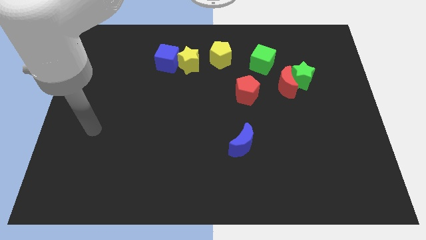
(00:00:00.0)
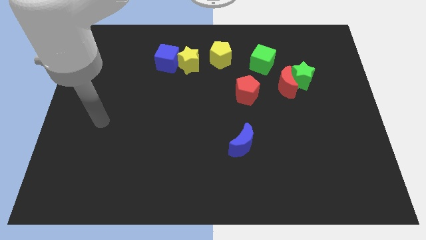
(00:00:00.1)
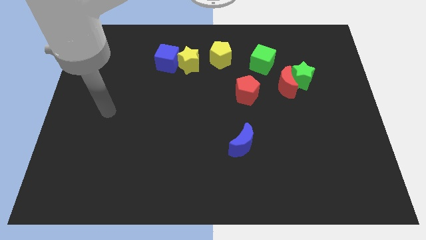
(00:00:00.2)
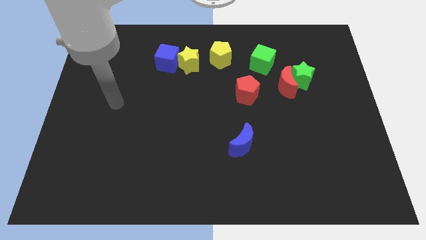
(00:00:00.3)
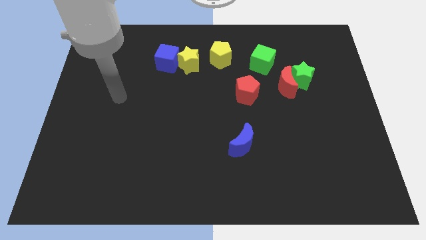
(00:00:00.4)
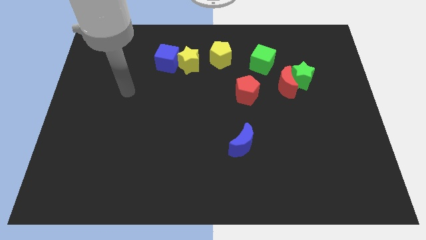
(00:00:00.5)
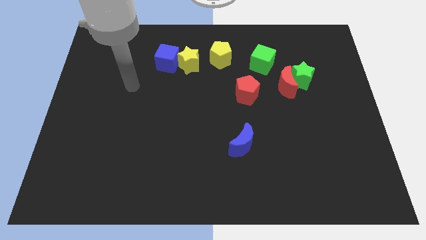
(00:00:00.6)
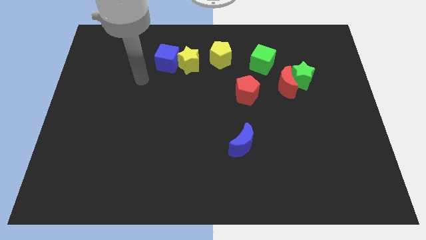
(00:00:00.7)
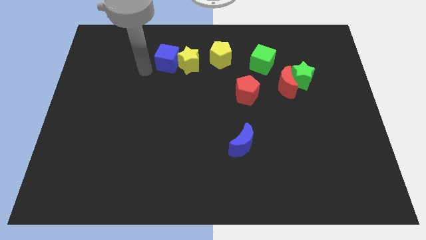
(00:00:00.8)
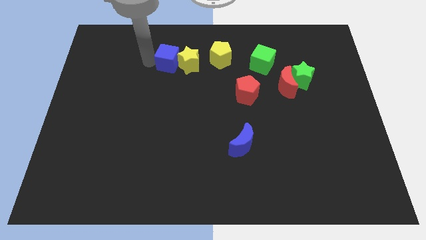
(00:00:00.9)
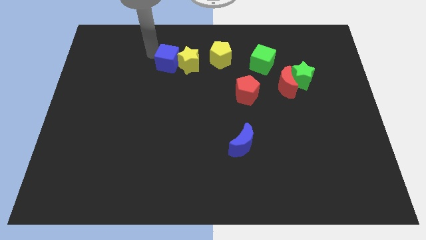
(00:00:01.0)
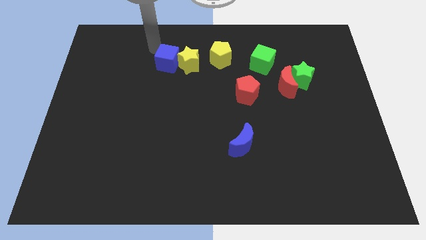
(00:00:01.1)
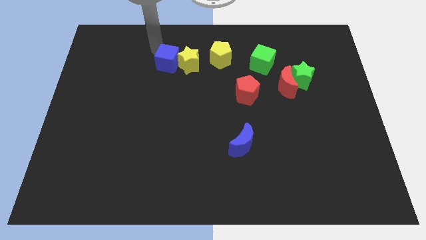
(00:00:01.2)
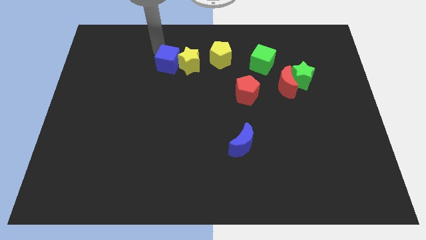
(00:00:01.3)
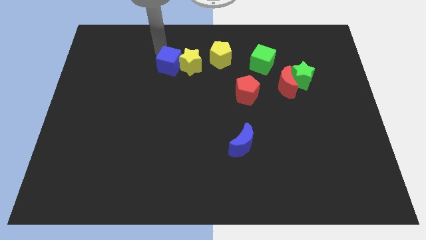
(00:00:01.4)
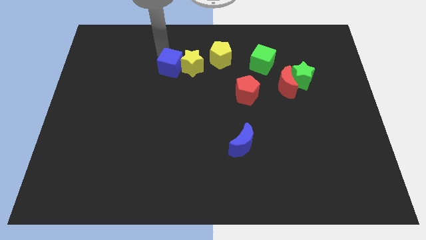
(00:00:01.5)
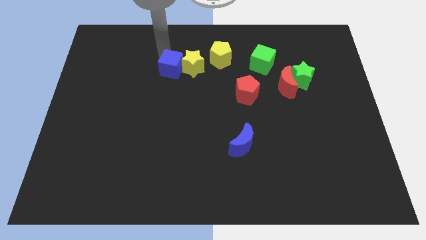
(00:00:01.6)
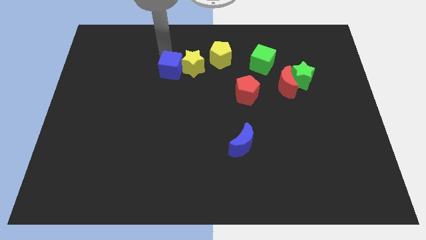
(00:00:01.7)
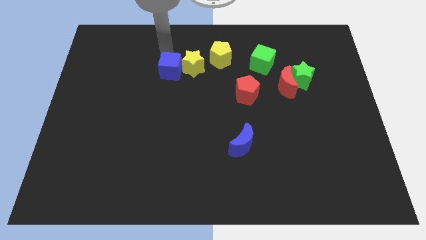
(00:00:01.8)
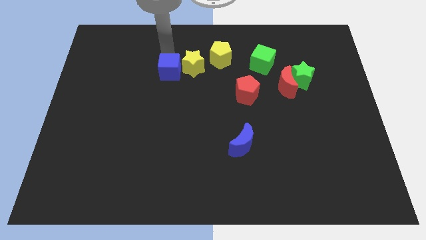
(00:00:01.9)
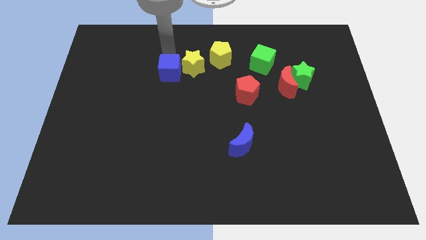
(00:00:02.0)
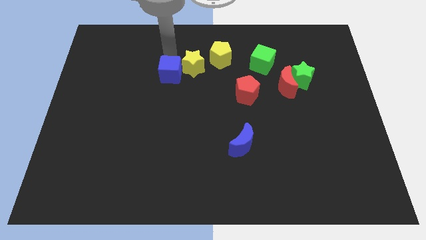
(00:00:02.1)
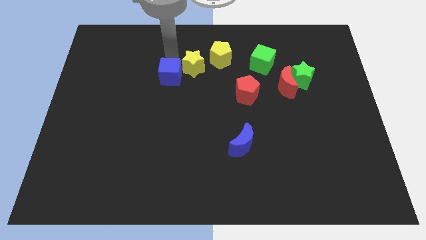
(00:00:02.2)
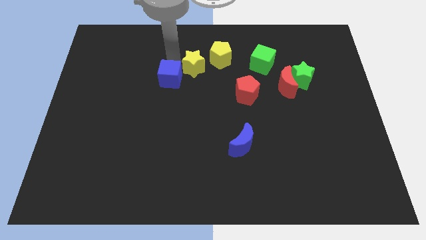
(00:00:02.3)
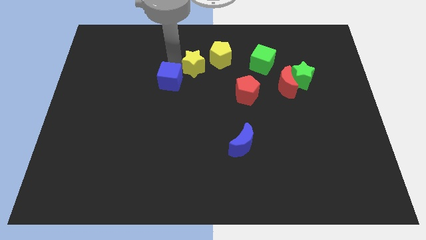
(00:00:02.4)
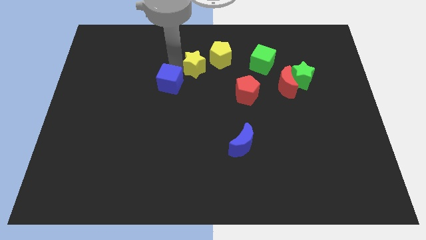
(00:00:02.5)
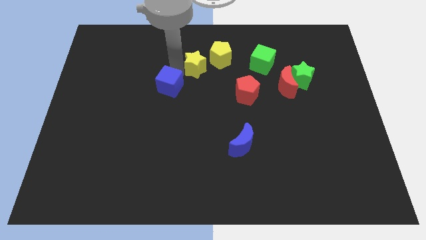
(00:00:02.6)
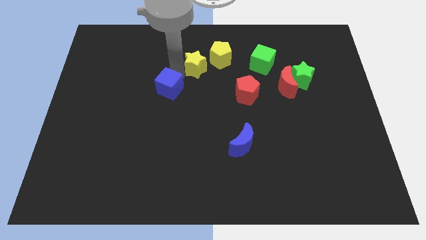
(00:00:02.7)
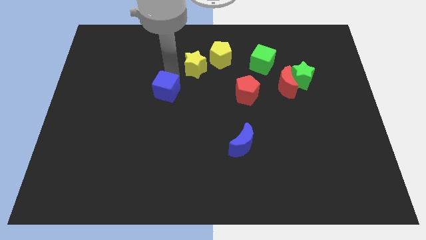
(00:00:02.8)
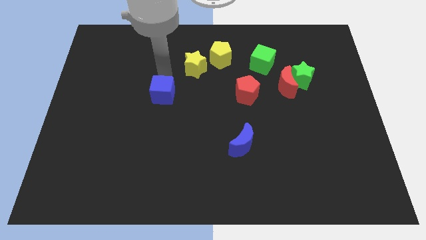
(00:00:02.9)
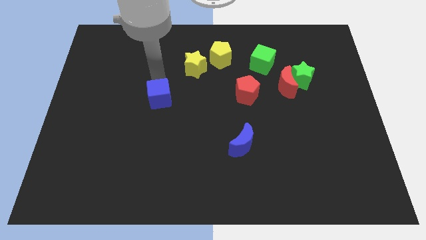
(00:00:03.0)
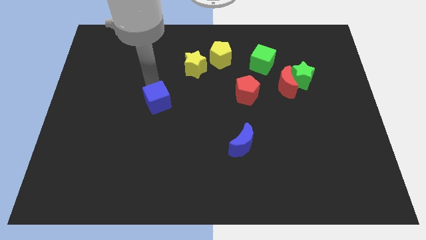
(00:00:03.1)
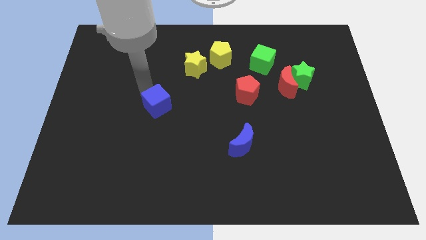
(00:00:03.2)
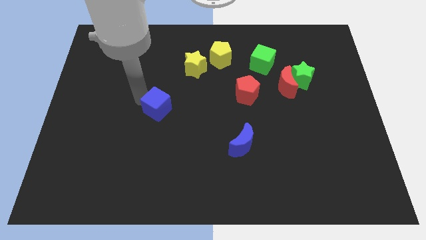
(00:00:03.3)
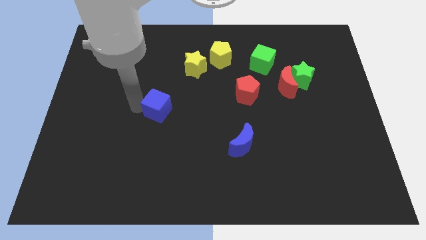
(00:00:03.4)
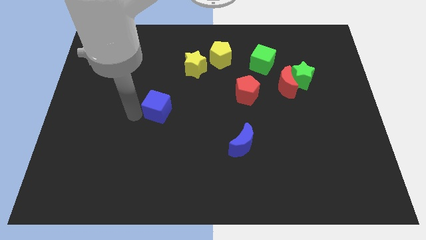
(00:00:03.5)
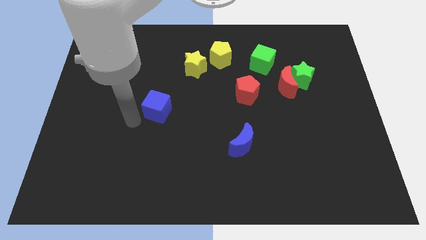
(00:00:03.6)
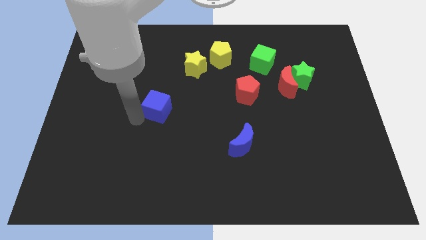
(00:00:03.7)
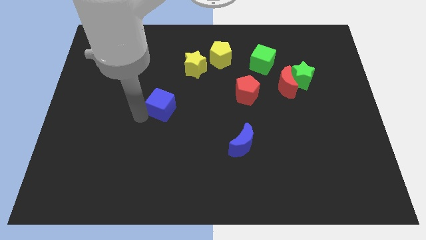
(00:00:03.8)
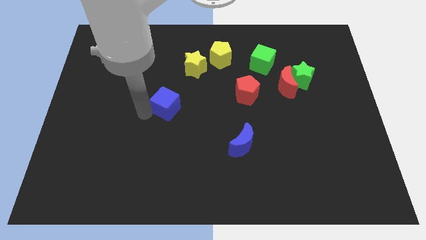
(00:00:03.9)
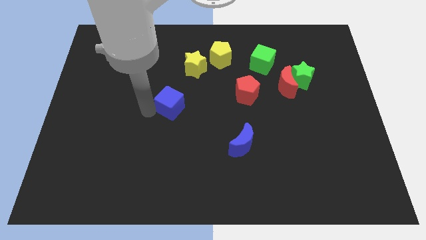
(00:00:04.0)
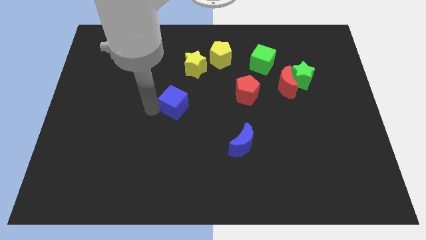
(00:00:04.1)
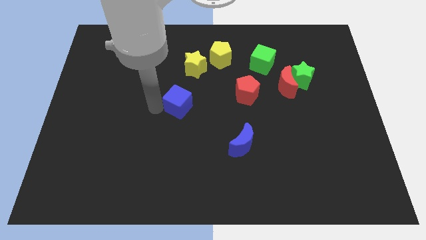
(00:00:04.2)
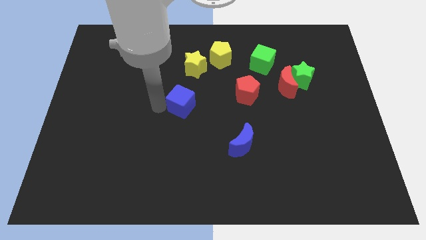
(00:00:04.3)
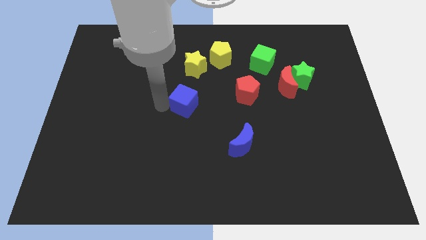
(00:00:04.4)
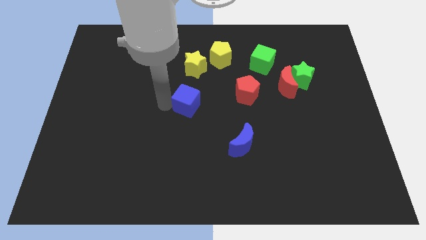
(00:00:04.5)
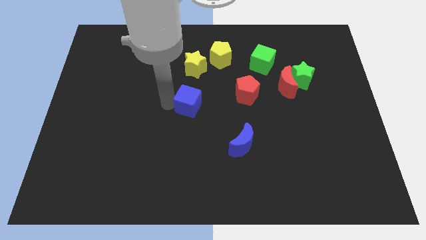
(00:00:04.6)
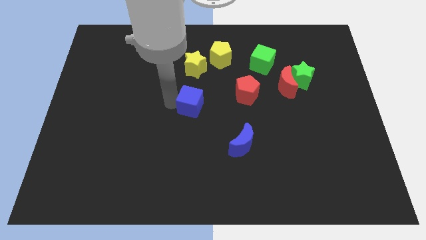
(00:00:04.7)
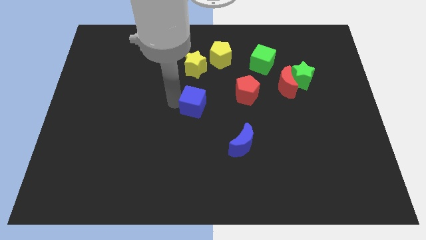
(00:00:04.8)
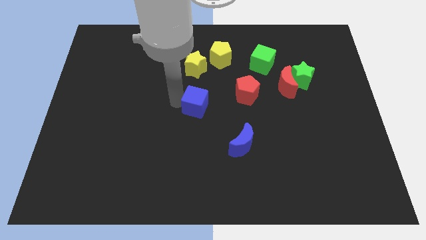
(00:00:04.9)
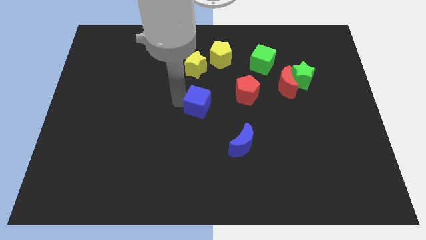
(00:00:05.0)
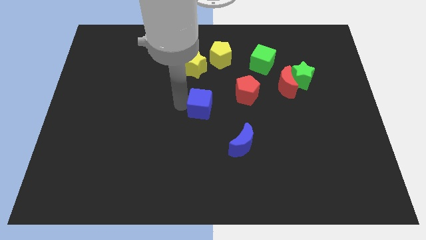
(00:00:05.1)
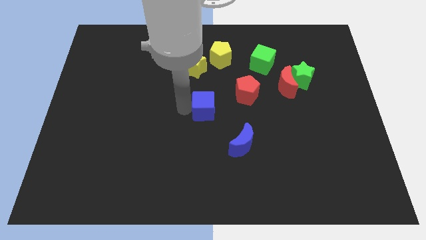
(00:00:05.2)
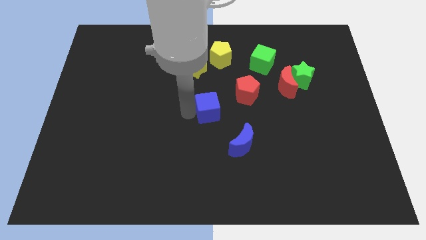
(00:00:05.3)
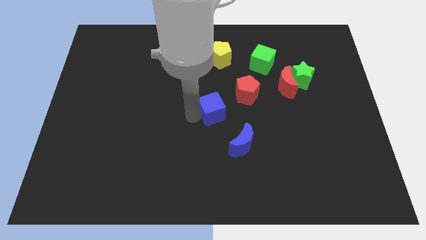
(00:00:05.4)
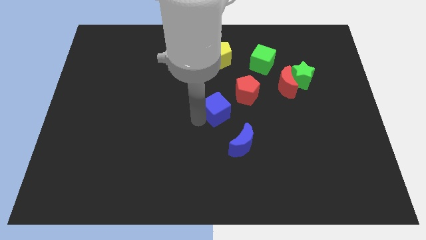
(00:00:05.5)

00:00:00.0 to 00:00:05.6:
move the blue cube down and to the right

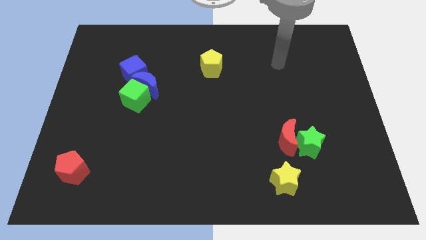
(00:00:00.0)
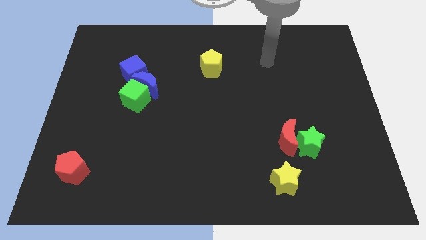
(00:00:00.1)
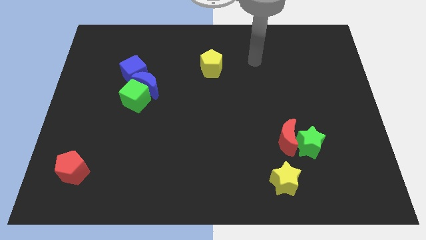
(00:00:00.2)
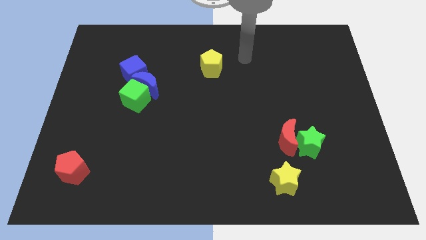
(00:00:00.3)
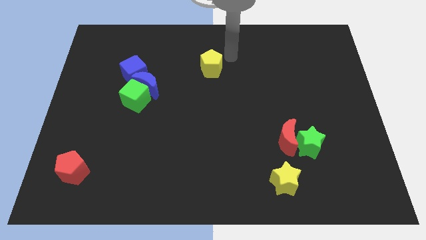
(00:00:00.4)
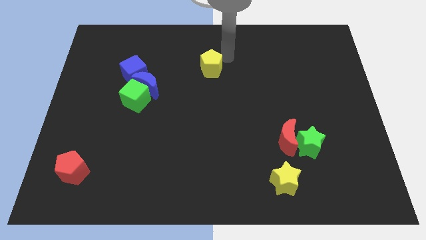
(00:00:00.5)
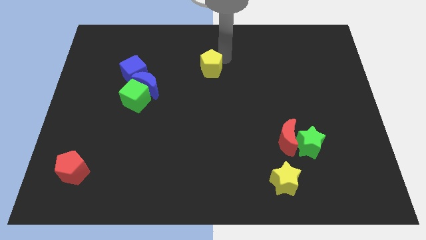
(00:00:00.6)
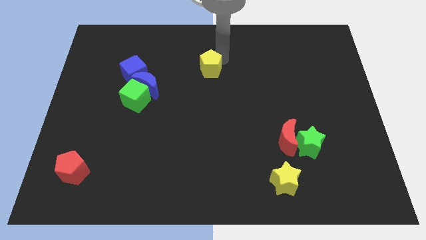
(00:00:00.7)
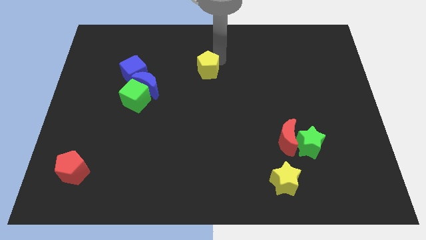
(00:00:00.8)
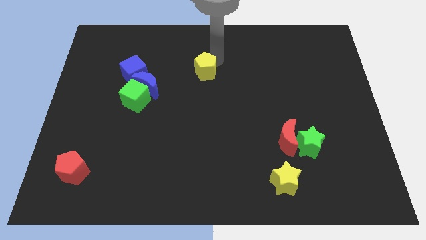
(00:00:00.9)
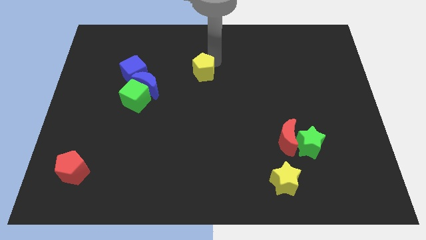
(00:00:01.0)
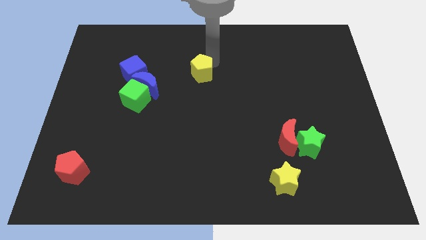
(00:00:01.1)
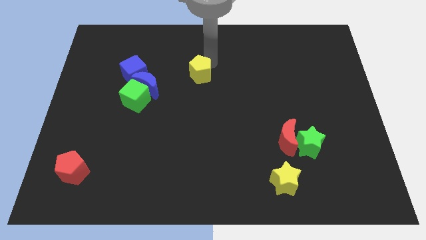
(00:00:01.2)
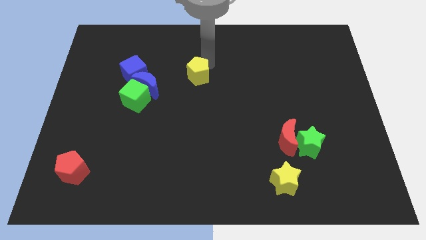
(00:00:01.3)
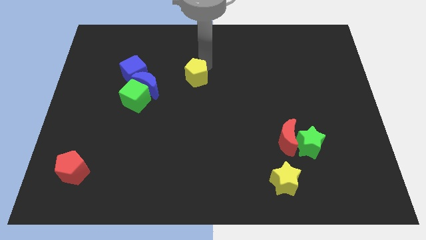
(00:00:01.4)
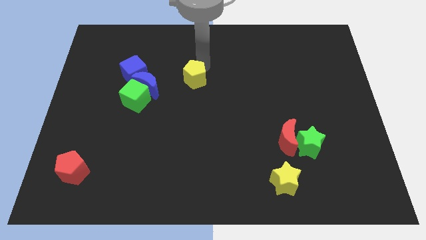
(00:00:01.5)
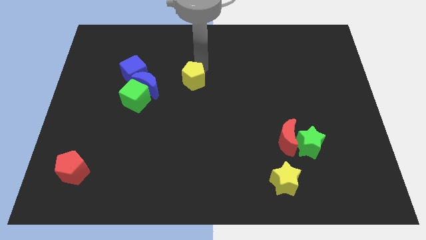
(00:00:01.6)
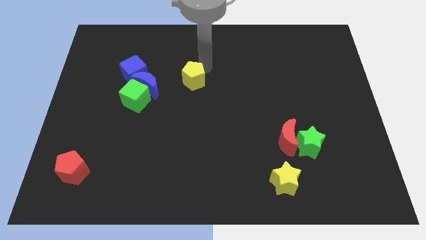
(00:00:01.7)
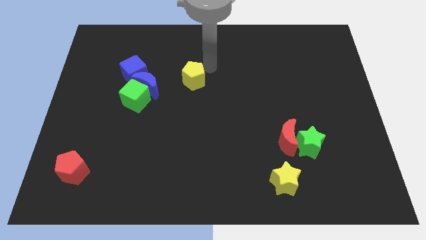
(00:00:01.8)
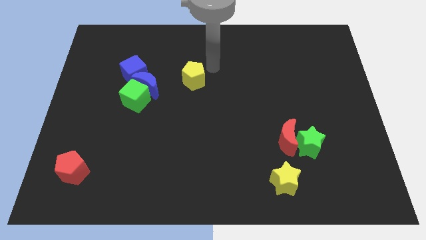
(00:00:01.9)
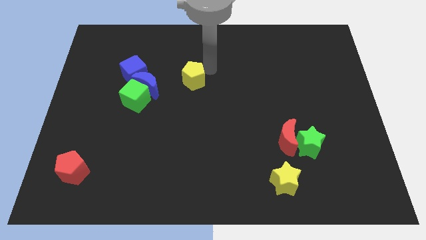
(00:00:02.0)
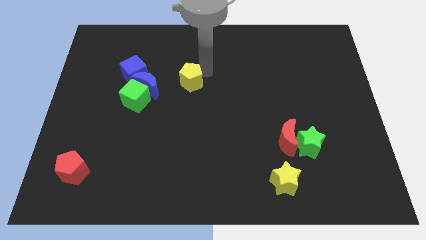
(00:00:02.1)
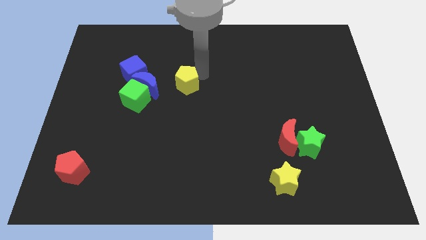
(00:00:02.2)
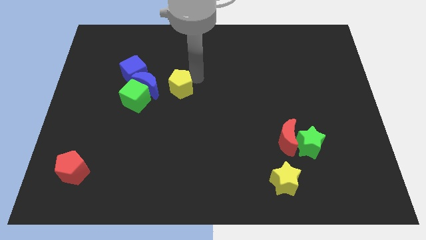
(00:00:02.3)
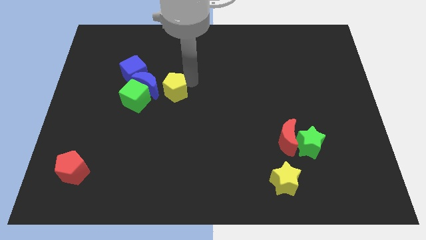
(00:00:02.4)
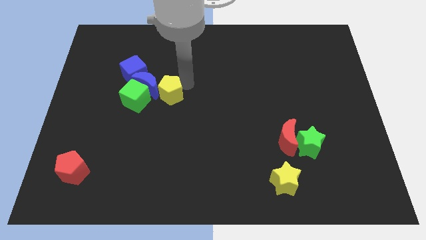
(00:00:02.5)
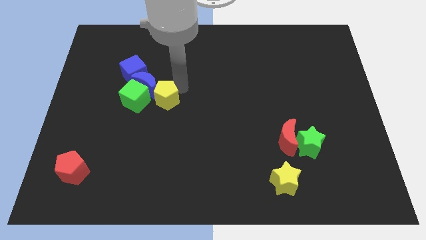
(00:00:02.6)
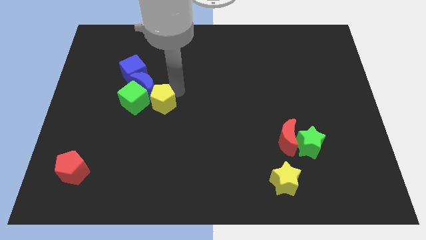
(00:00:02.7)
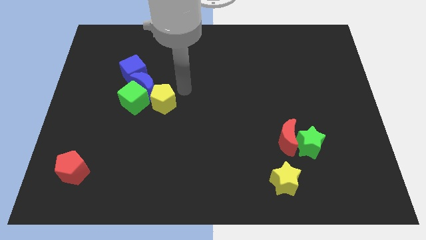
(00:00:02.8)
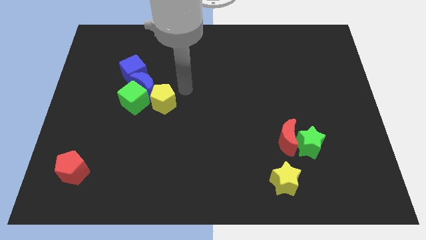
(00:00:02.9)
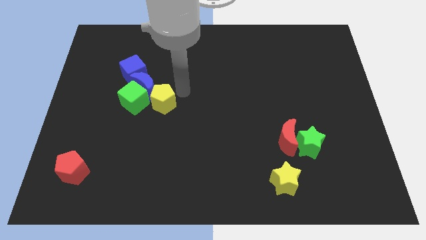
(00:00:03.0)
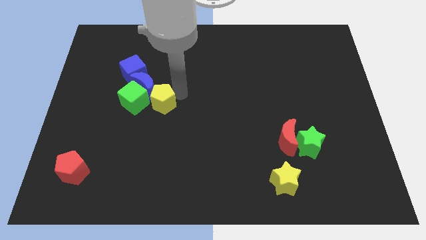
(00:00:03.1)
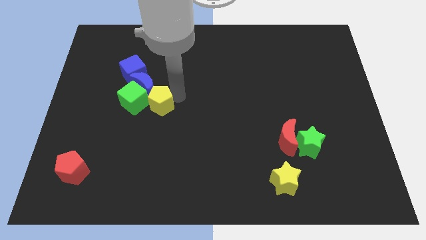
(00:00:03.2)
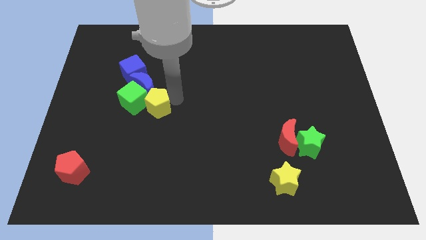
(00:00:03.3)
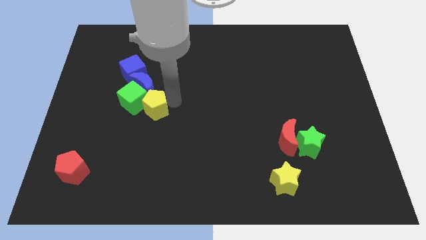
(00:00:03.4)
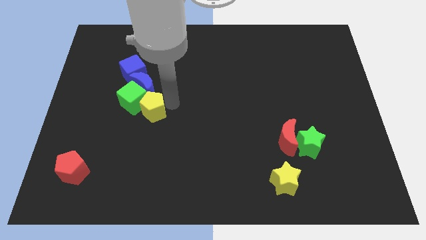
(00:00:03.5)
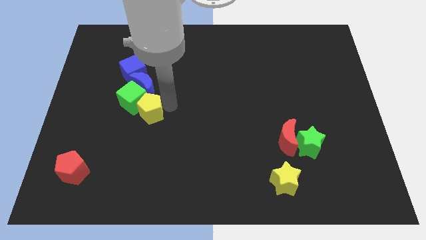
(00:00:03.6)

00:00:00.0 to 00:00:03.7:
push the yellow pentagon down and to the left diagonally
